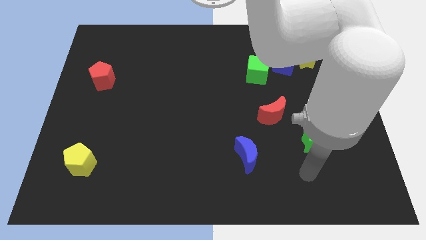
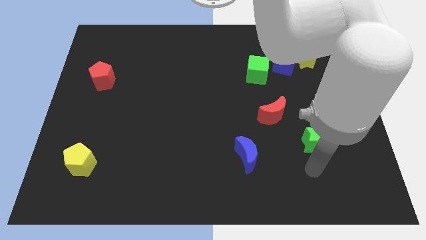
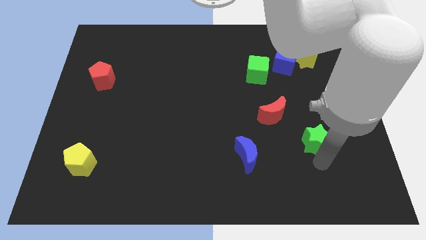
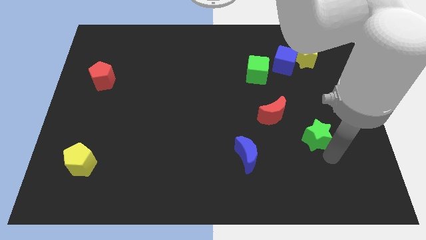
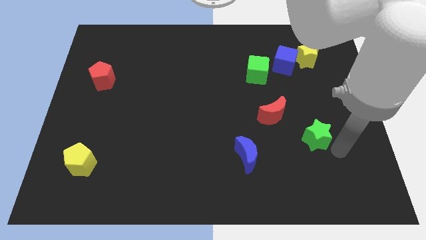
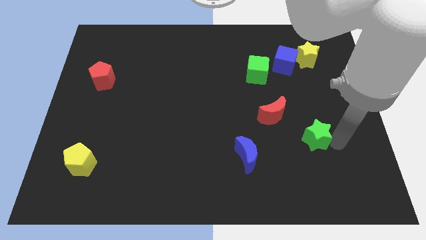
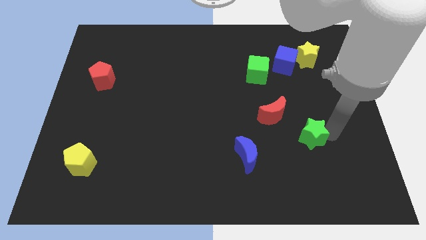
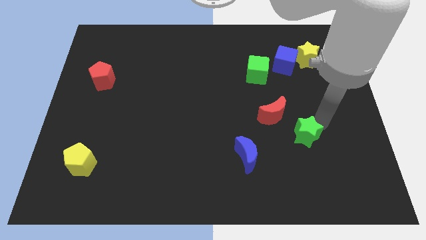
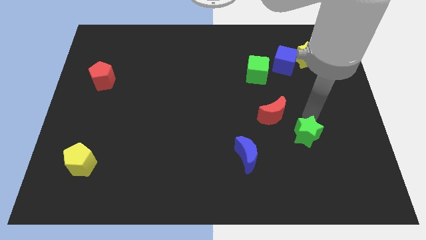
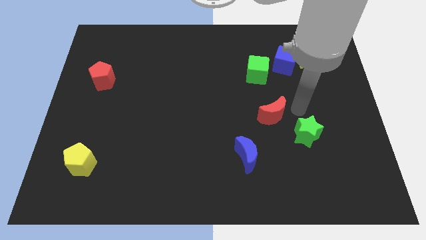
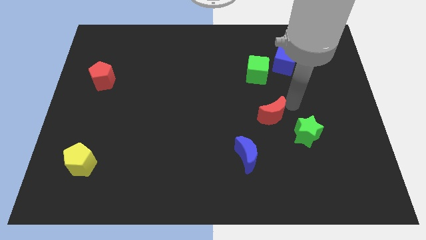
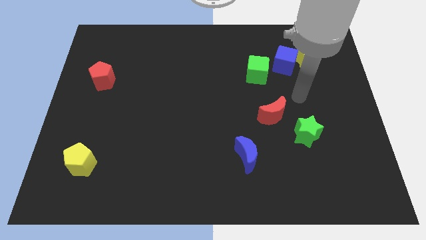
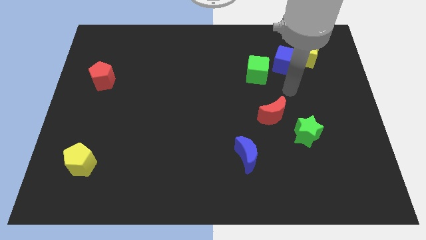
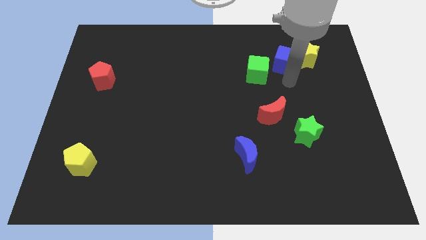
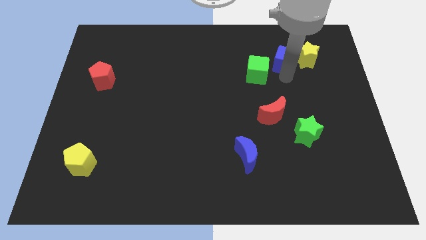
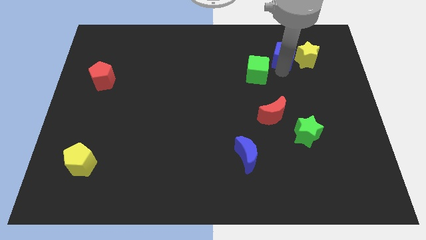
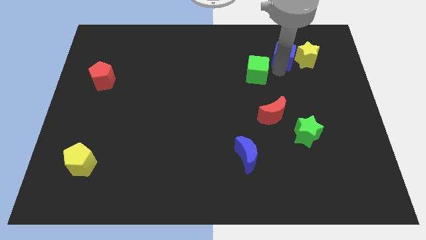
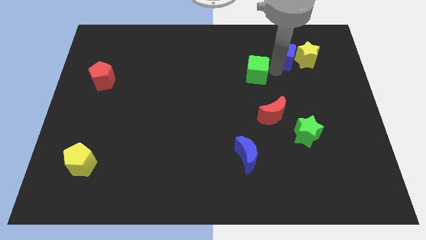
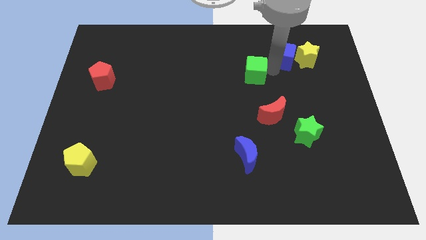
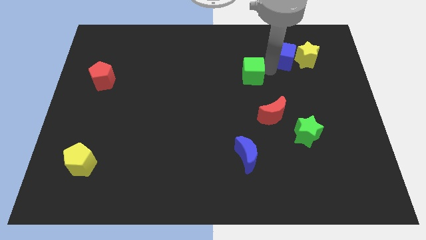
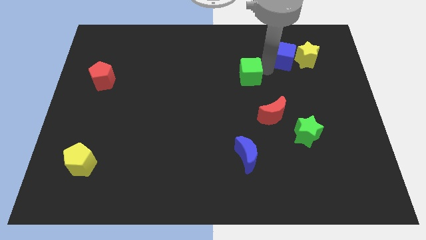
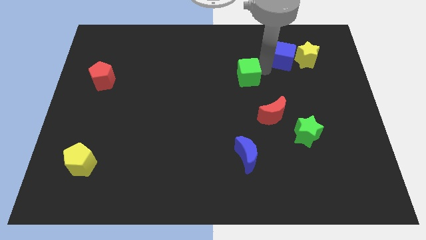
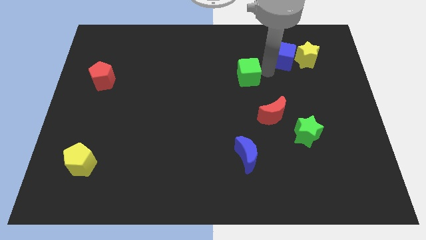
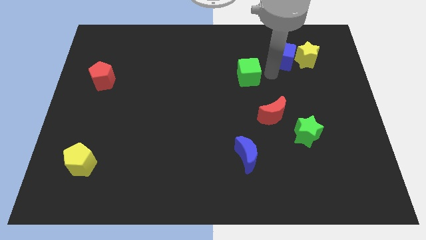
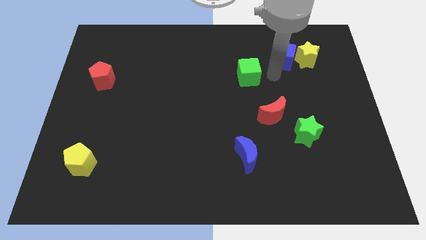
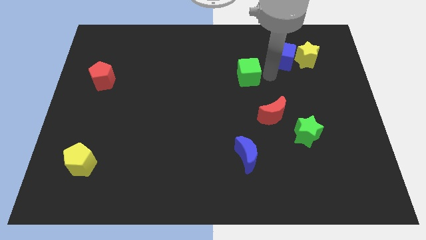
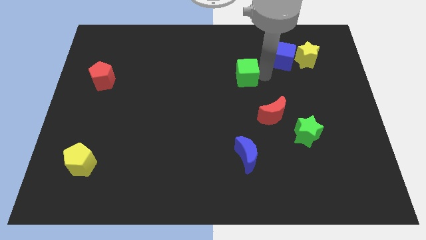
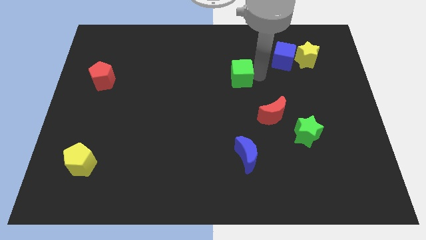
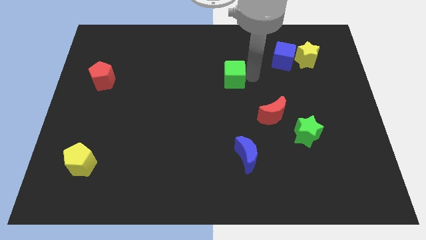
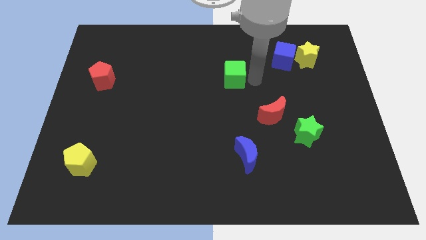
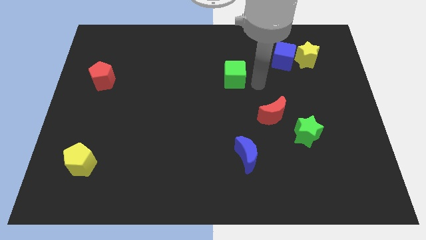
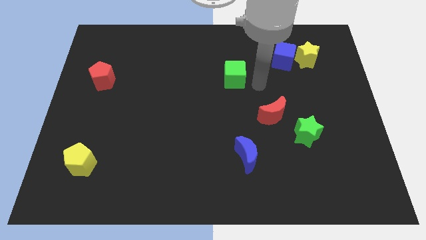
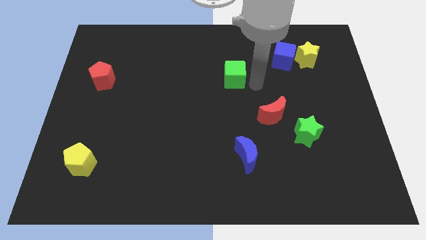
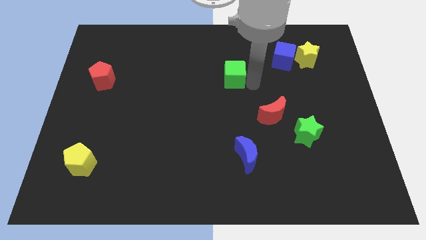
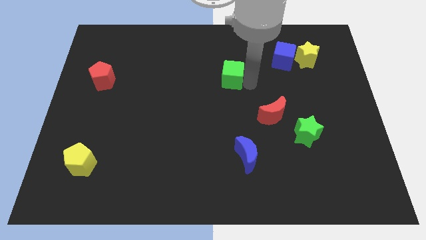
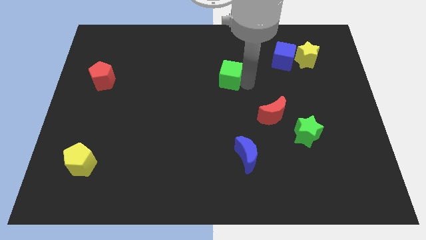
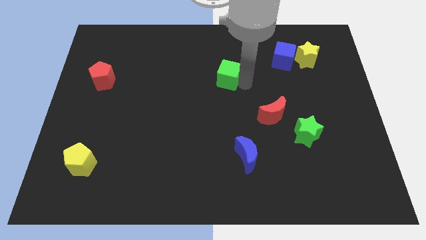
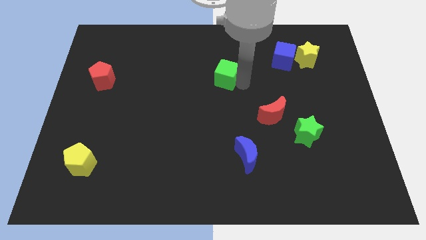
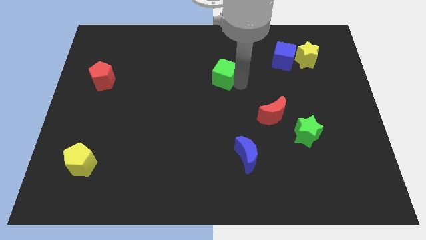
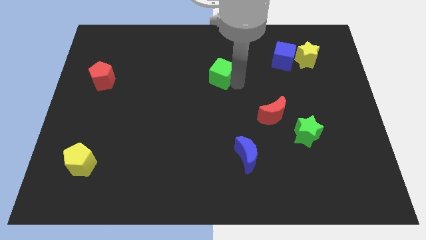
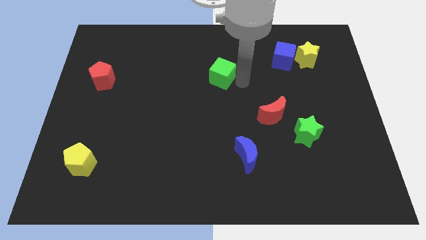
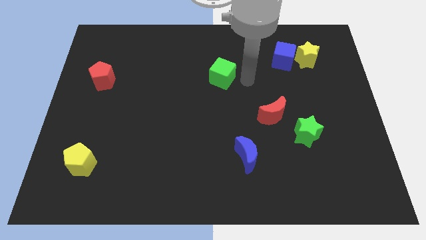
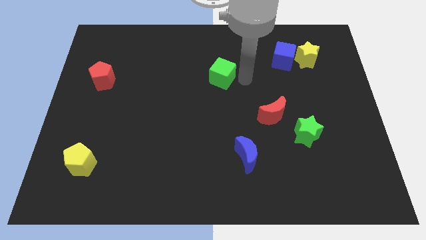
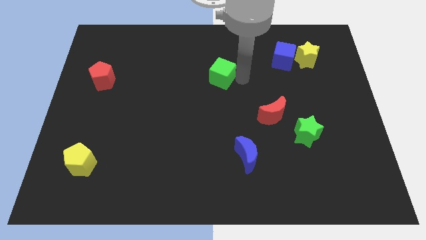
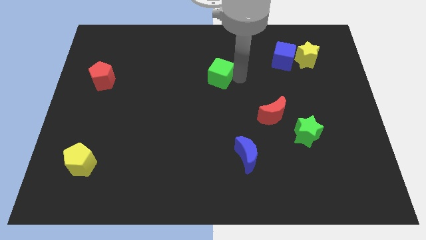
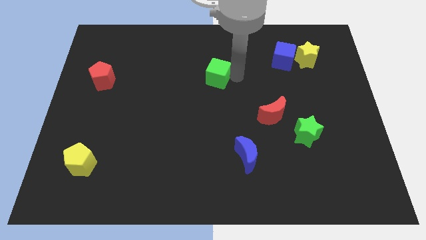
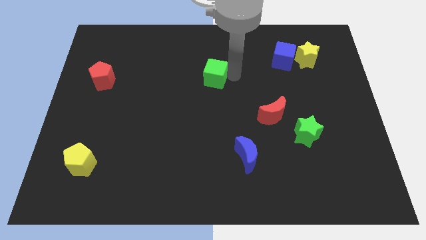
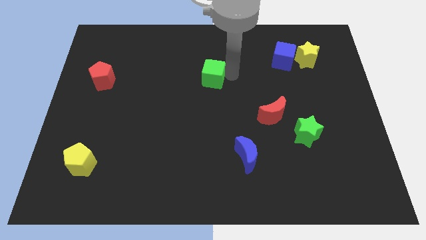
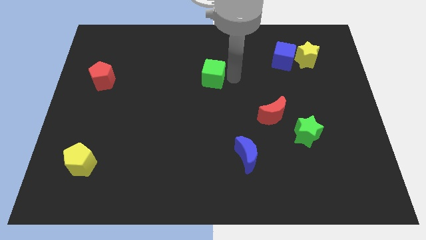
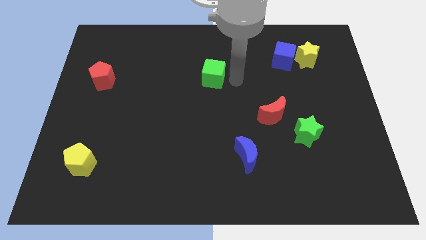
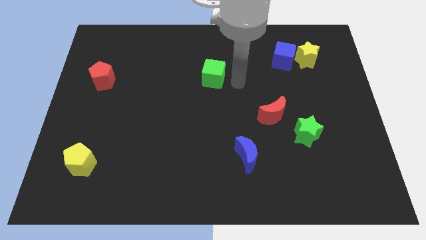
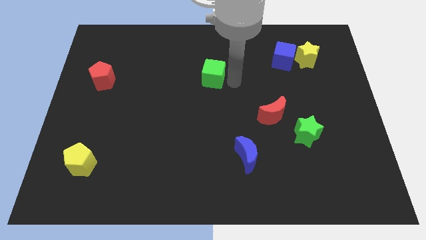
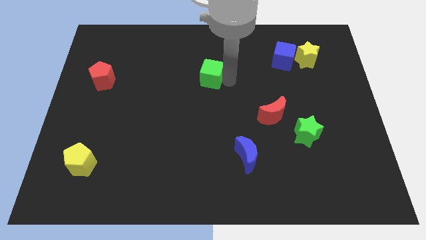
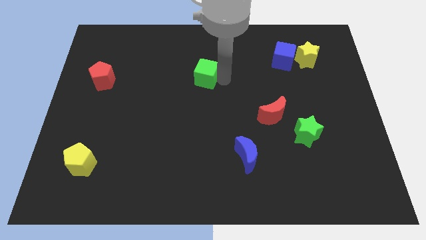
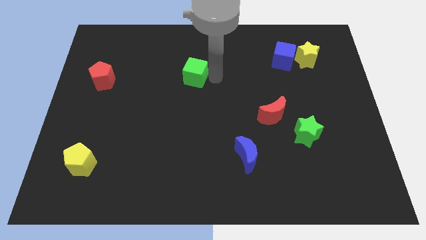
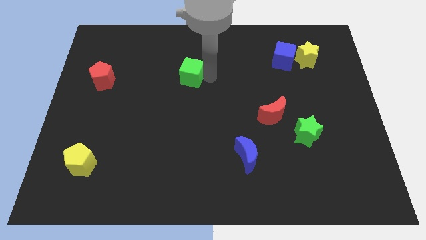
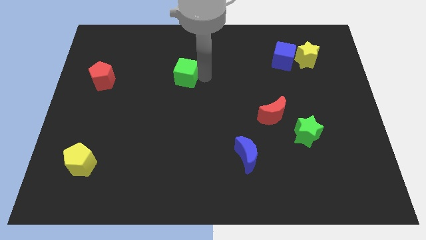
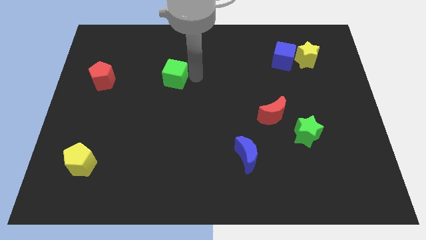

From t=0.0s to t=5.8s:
move the green cube left

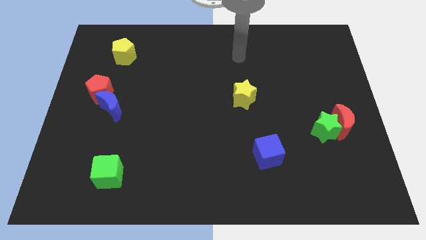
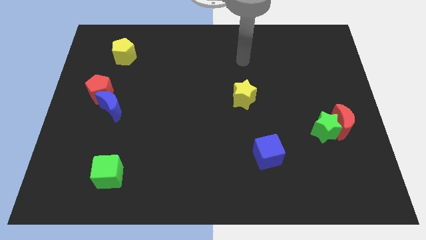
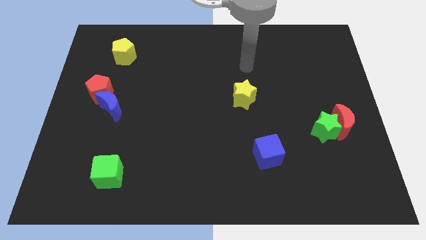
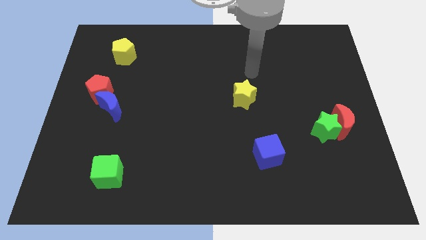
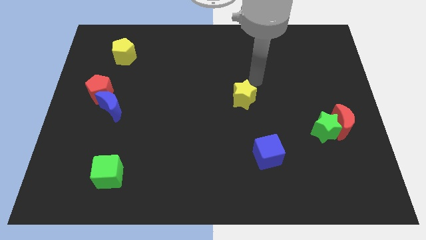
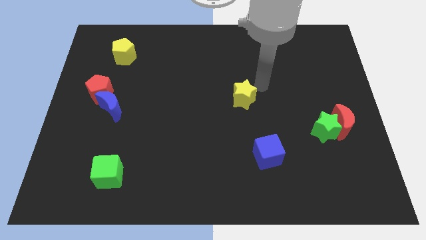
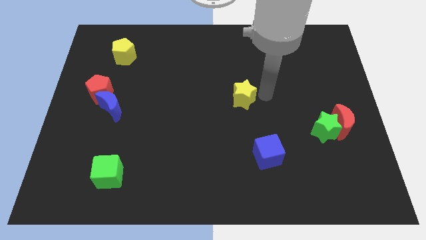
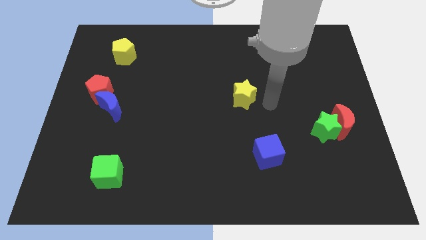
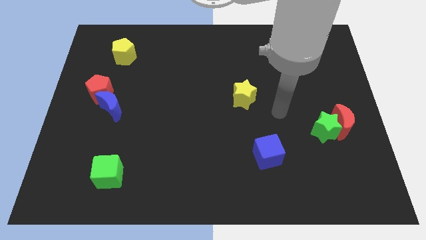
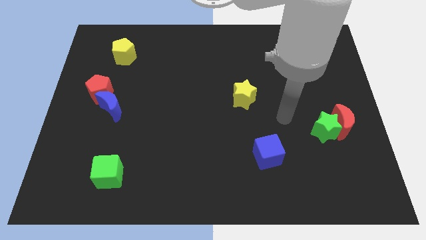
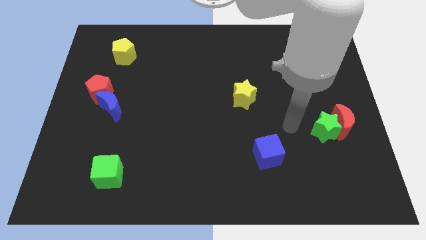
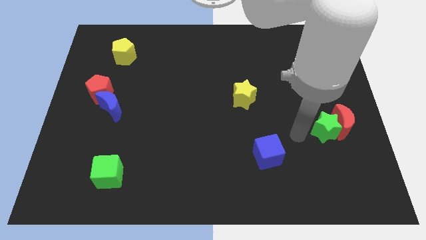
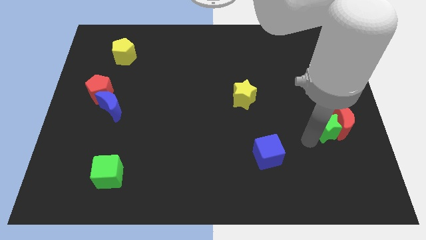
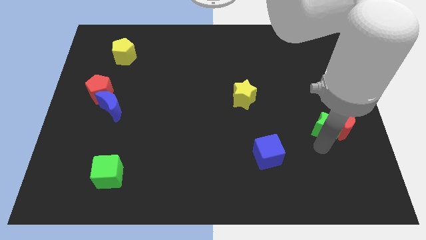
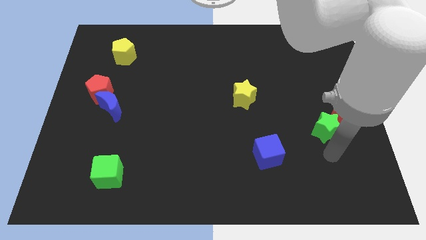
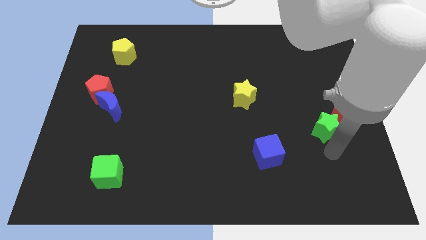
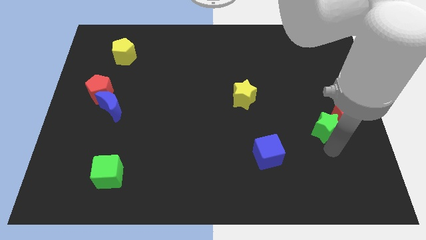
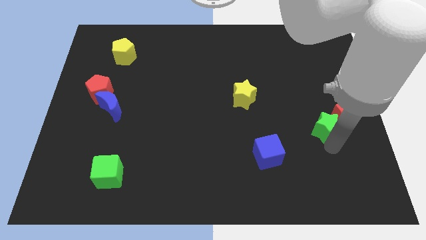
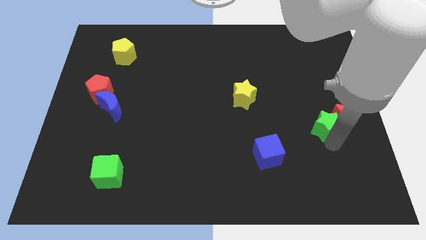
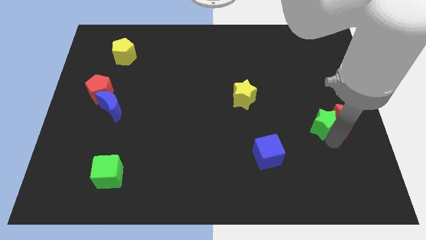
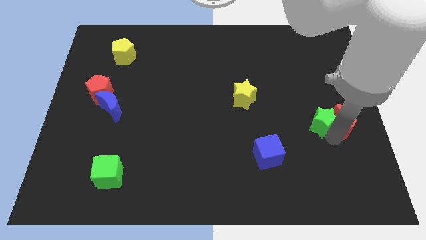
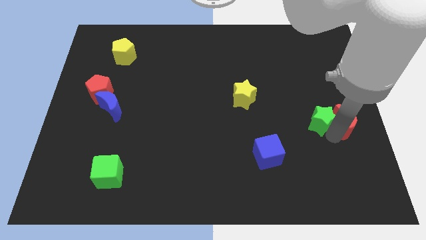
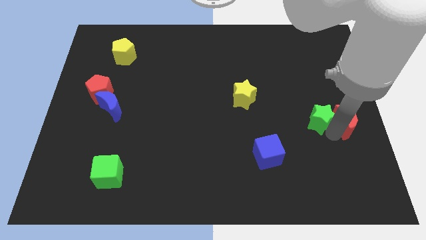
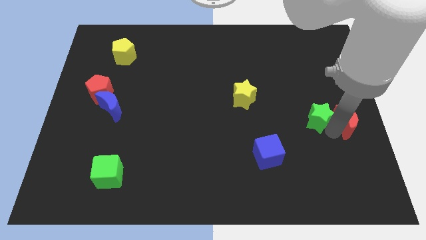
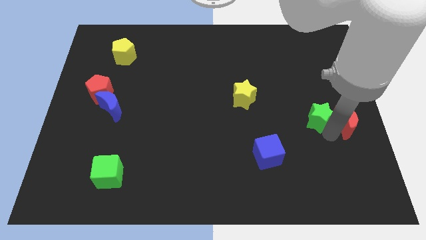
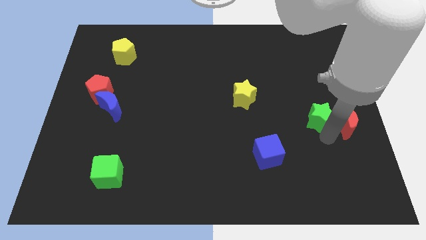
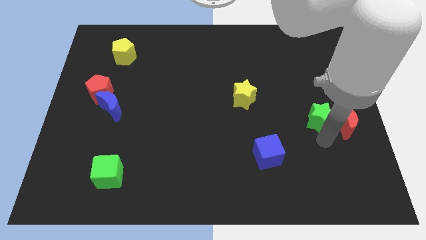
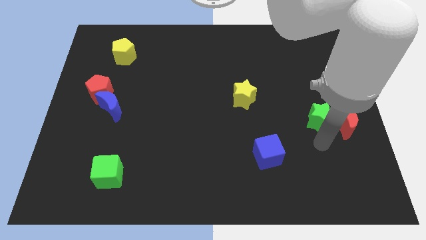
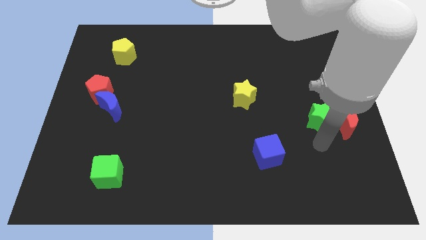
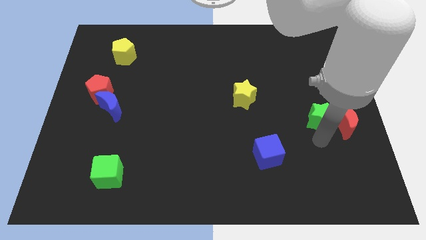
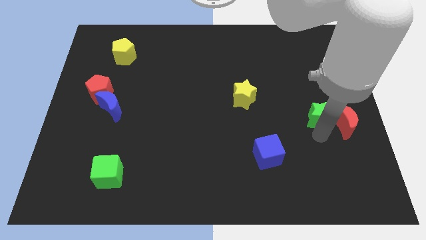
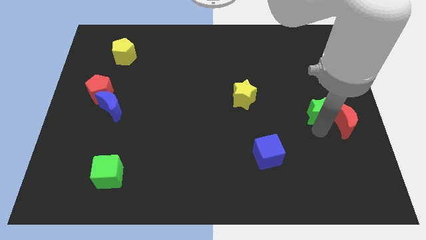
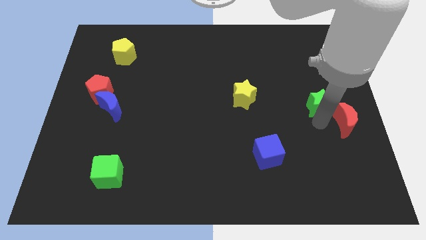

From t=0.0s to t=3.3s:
move the green star up a little bit
